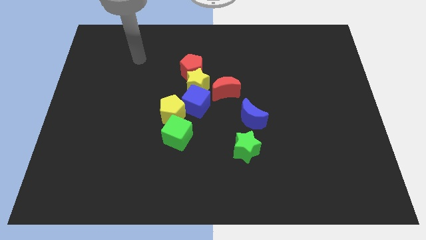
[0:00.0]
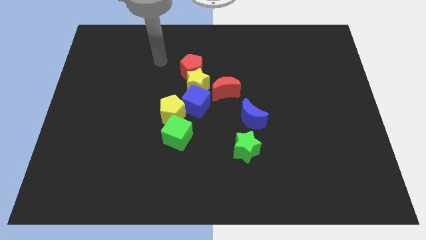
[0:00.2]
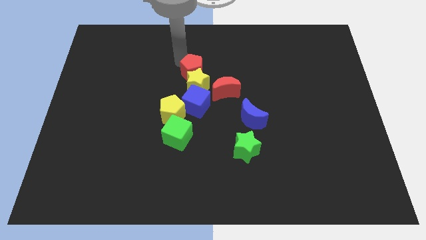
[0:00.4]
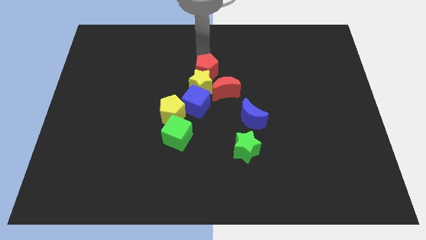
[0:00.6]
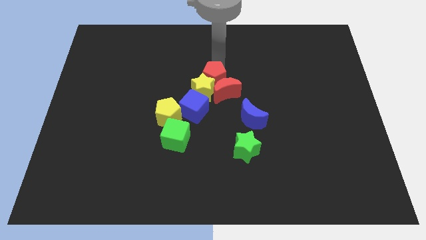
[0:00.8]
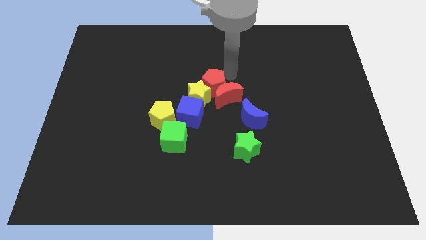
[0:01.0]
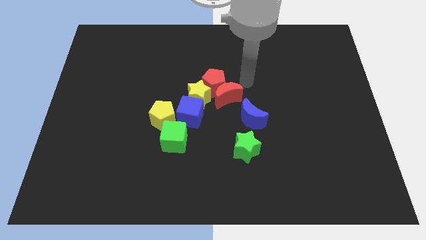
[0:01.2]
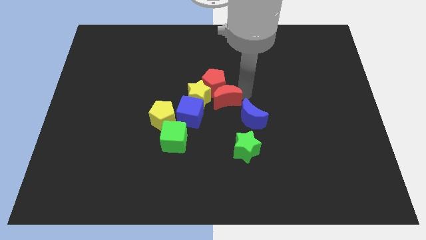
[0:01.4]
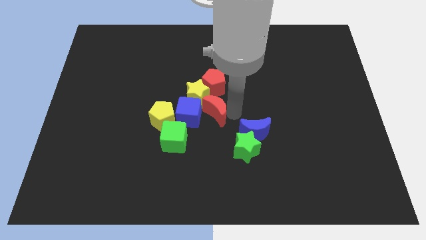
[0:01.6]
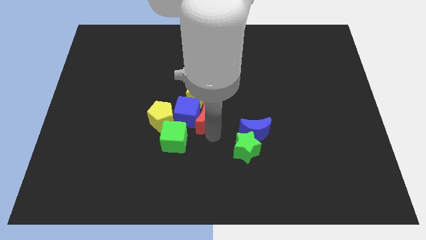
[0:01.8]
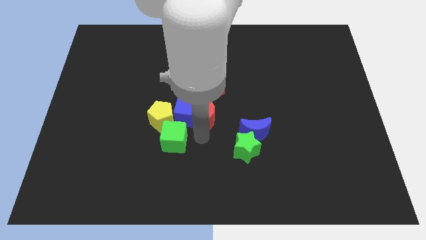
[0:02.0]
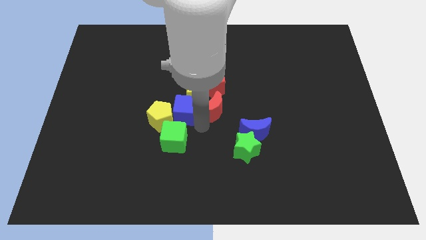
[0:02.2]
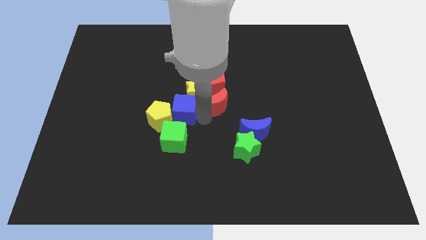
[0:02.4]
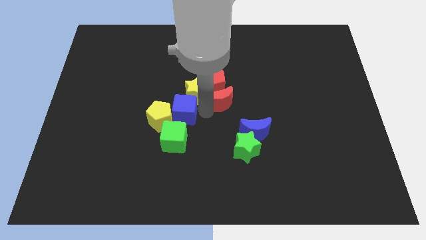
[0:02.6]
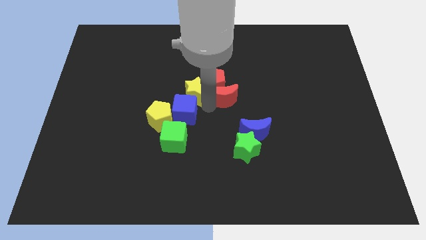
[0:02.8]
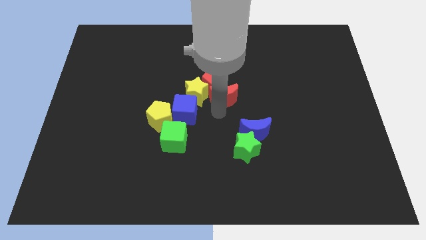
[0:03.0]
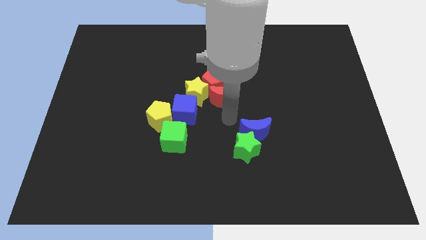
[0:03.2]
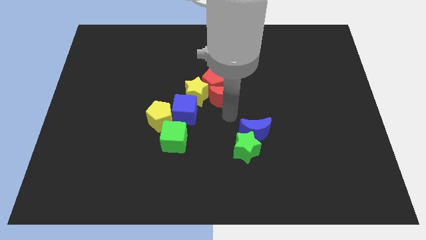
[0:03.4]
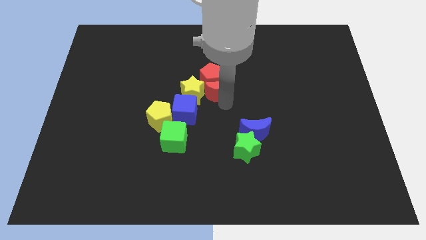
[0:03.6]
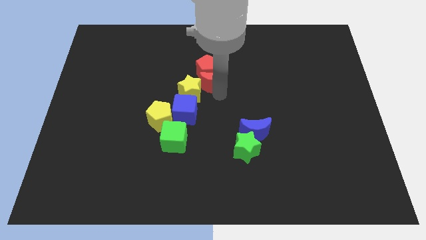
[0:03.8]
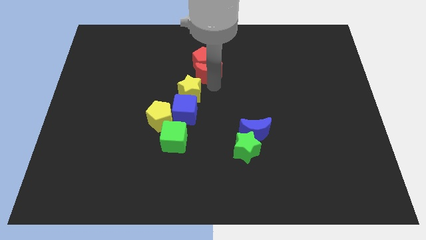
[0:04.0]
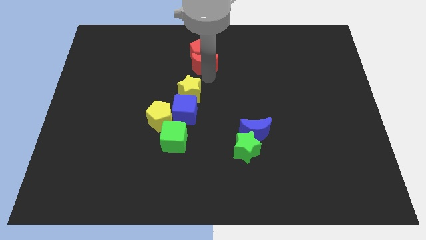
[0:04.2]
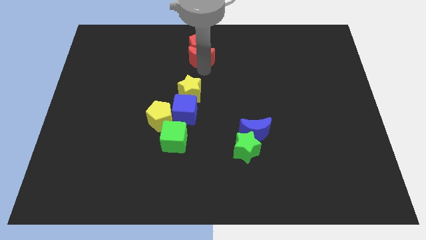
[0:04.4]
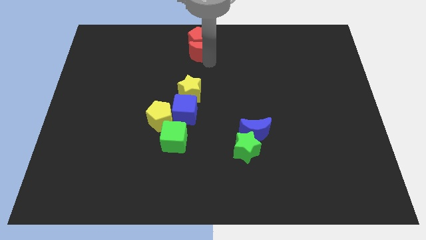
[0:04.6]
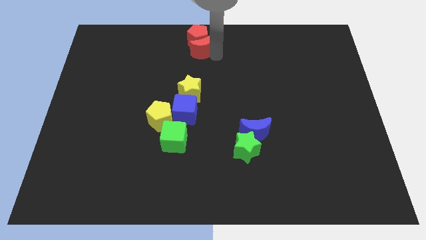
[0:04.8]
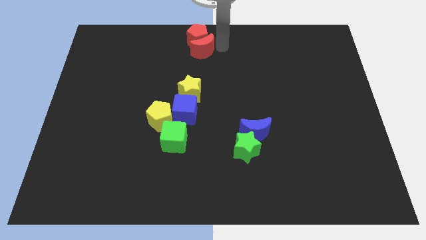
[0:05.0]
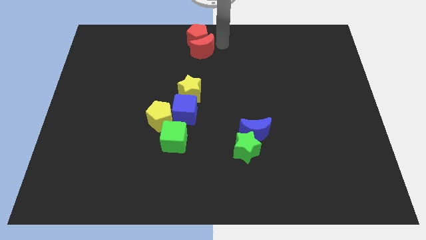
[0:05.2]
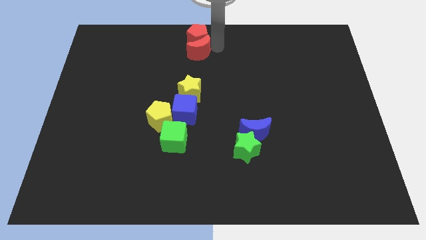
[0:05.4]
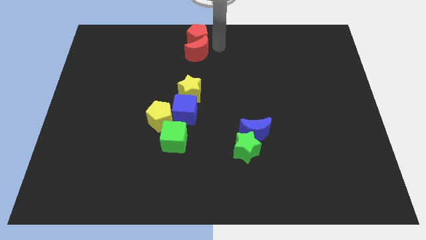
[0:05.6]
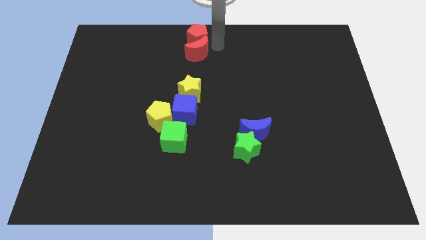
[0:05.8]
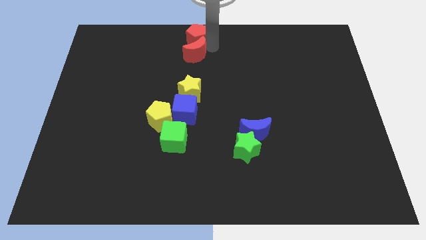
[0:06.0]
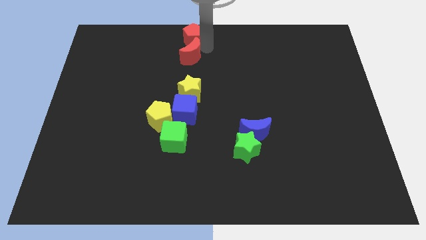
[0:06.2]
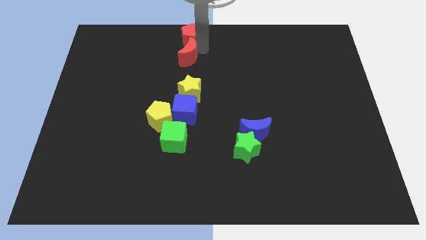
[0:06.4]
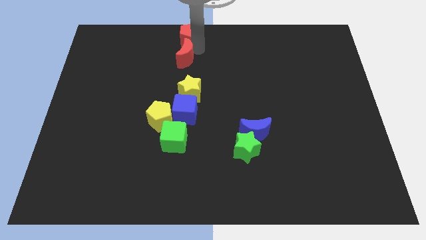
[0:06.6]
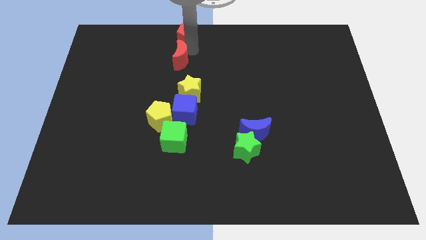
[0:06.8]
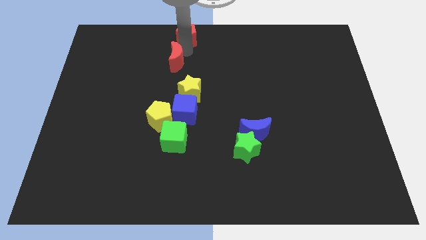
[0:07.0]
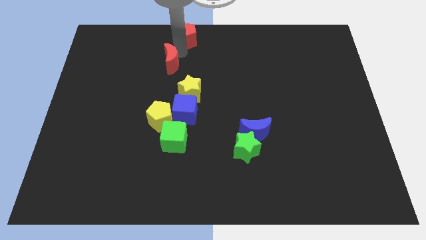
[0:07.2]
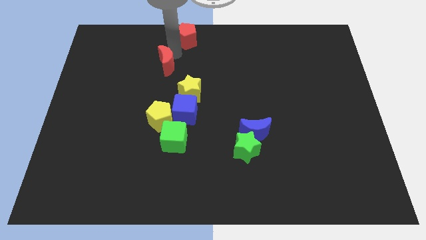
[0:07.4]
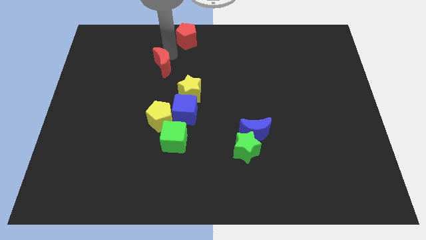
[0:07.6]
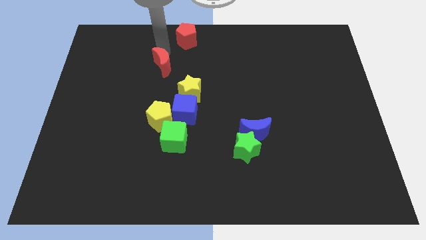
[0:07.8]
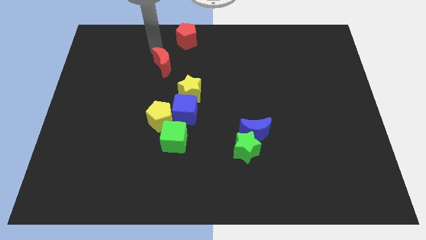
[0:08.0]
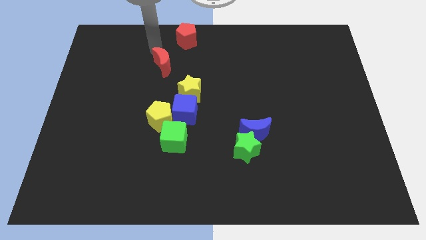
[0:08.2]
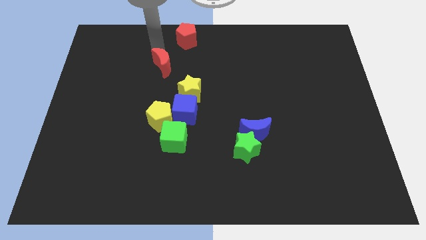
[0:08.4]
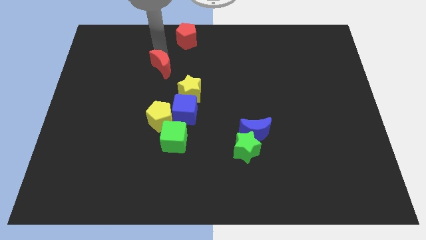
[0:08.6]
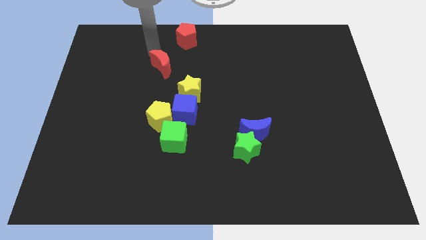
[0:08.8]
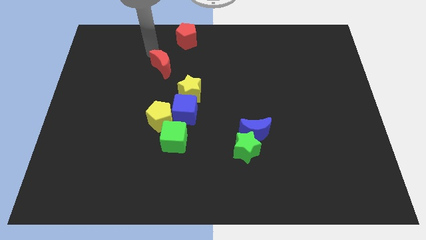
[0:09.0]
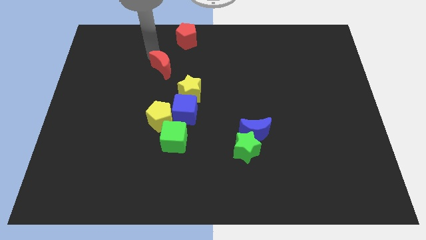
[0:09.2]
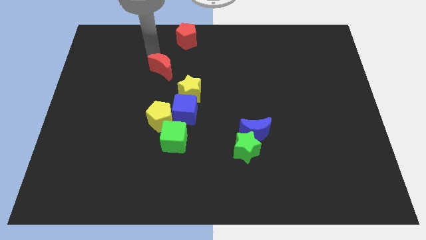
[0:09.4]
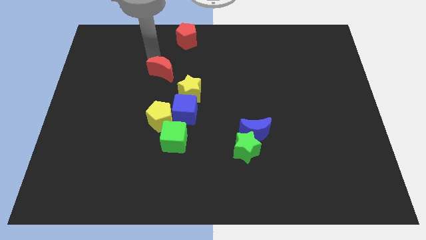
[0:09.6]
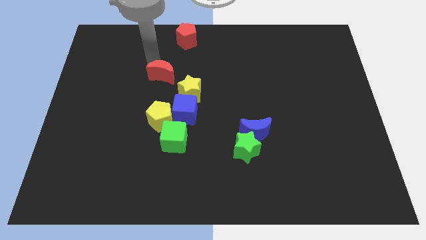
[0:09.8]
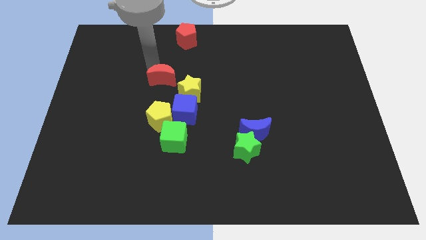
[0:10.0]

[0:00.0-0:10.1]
move the red moon to the top left side of the blue cube

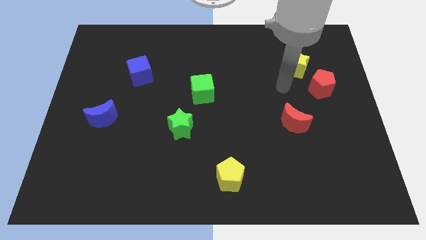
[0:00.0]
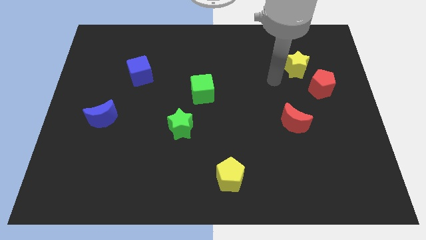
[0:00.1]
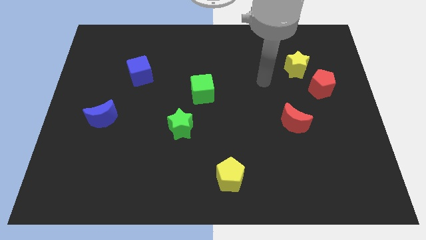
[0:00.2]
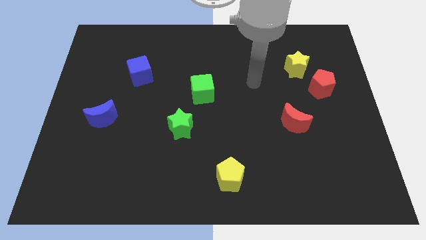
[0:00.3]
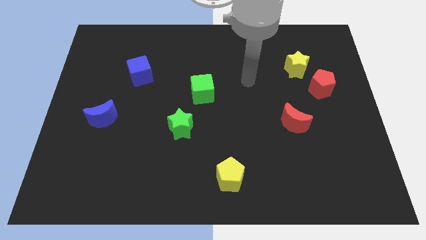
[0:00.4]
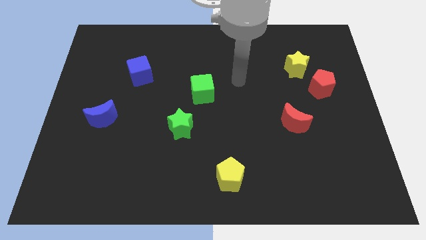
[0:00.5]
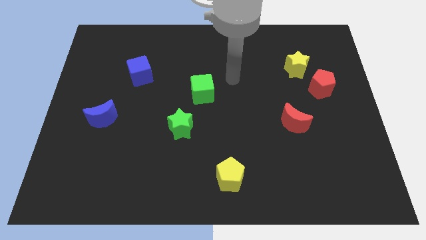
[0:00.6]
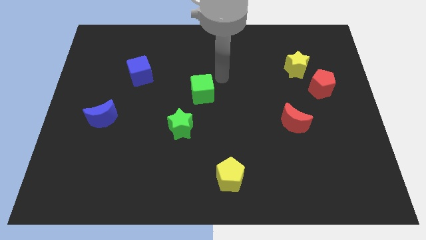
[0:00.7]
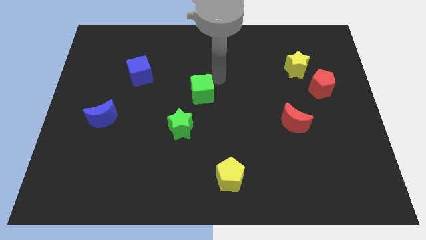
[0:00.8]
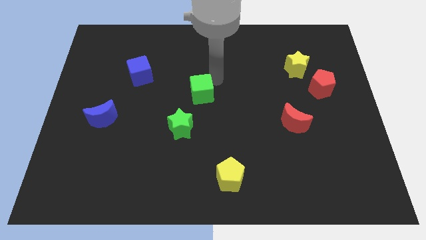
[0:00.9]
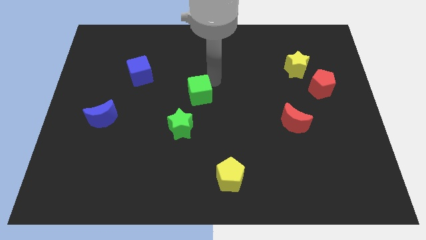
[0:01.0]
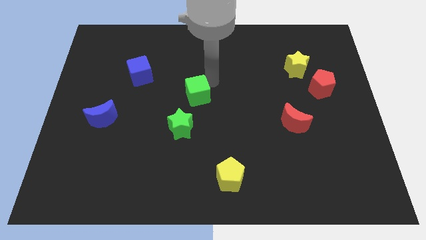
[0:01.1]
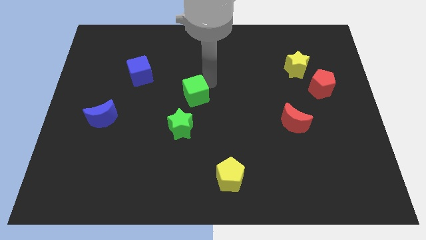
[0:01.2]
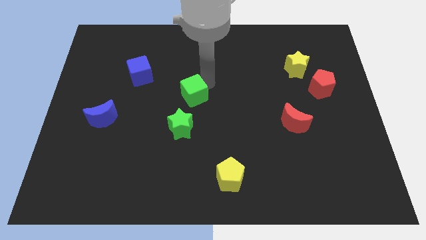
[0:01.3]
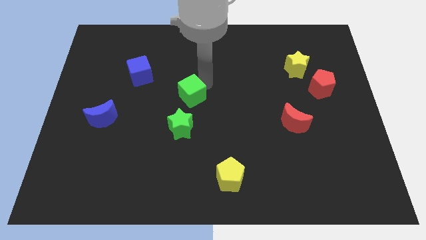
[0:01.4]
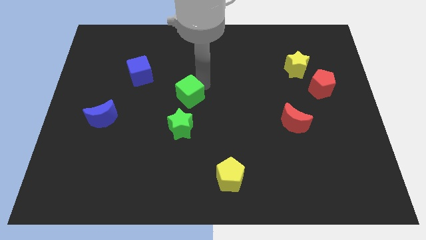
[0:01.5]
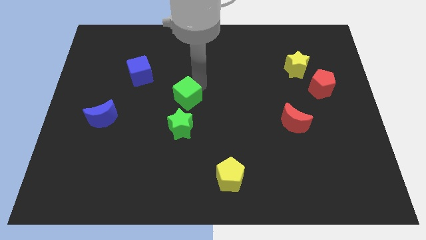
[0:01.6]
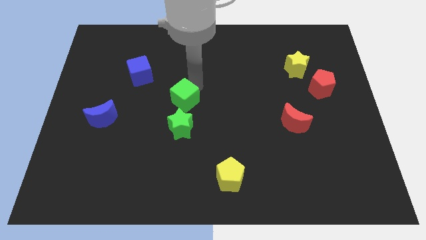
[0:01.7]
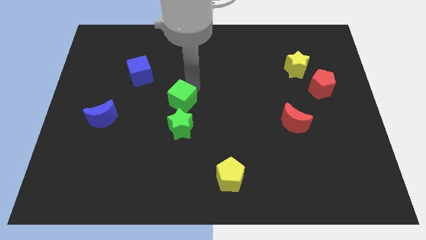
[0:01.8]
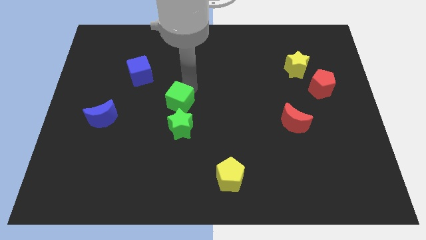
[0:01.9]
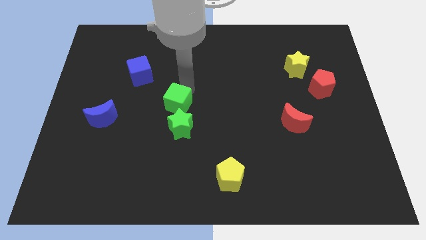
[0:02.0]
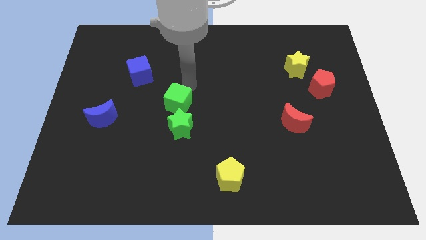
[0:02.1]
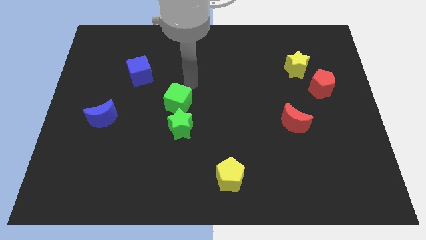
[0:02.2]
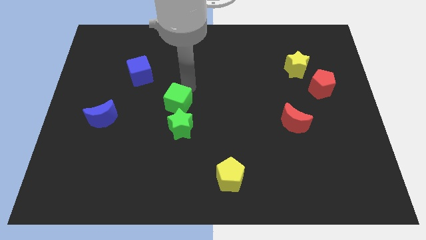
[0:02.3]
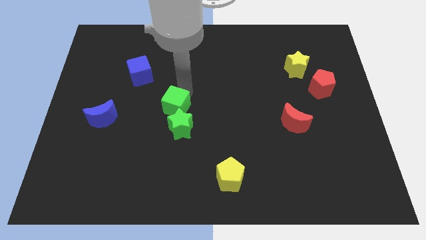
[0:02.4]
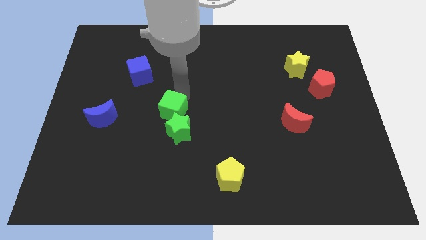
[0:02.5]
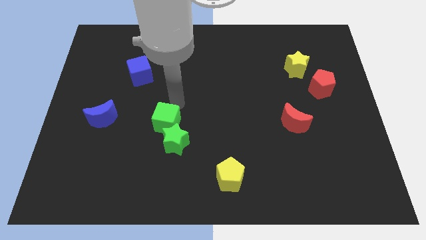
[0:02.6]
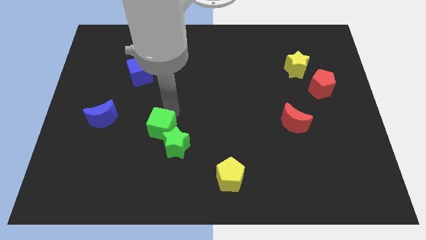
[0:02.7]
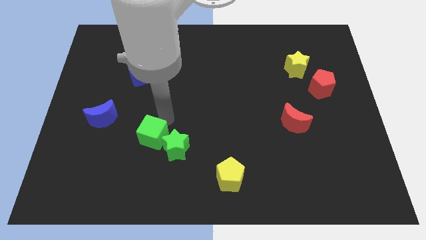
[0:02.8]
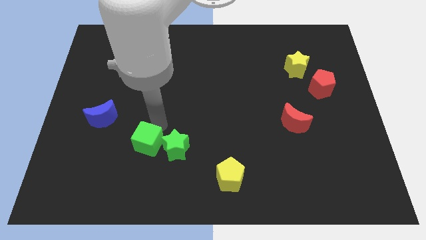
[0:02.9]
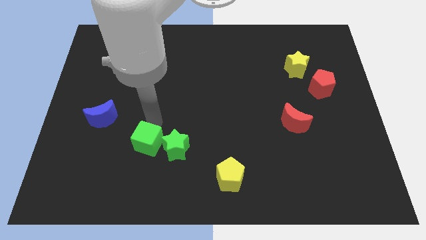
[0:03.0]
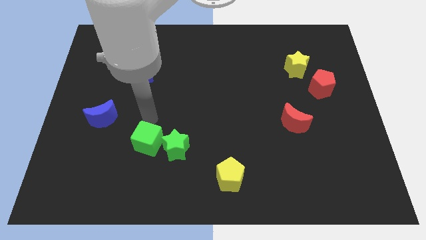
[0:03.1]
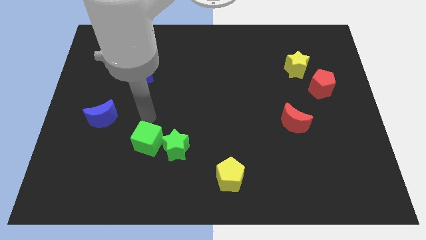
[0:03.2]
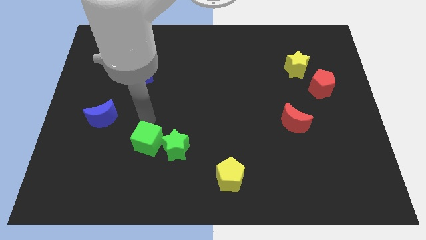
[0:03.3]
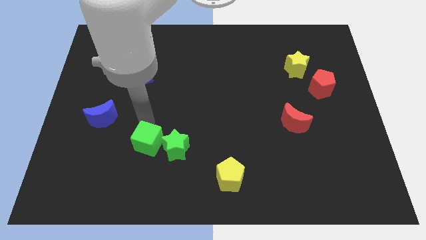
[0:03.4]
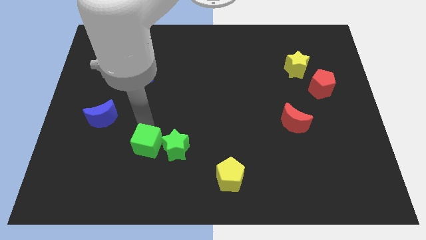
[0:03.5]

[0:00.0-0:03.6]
push the green cube diagonally down and to the left of the green star
